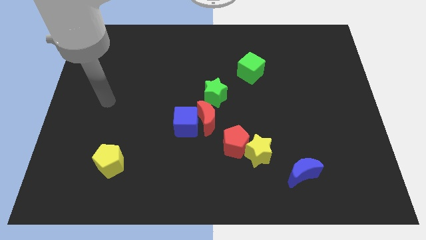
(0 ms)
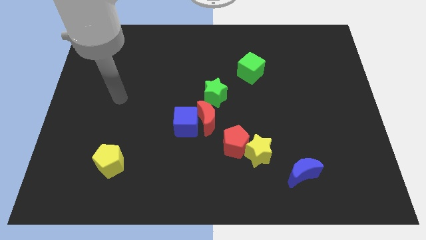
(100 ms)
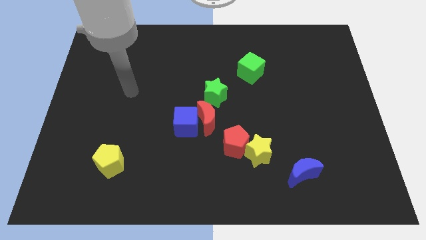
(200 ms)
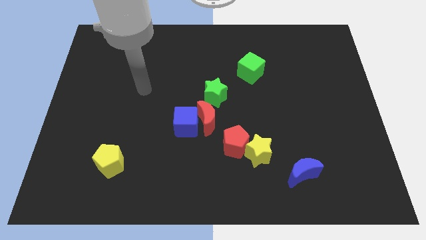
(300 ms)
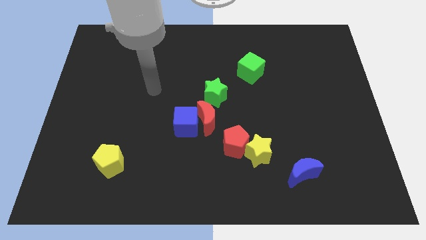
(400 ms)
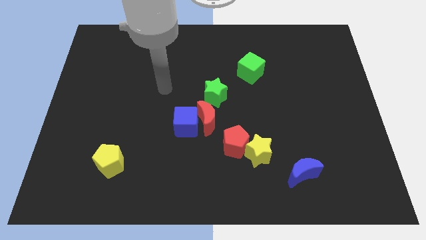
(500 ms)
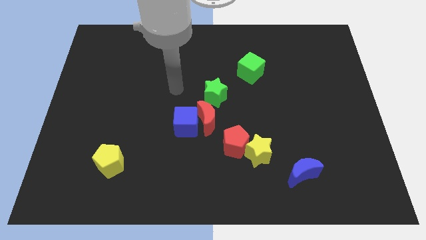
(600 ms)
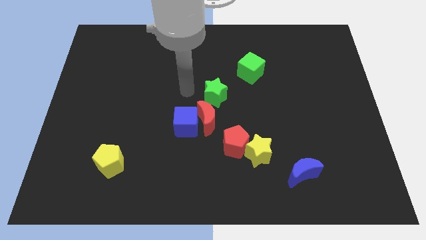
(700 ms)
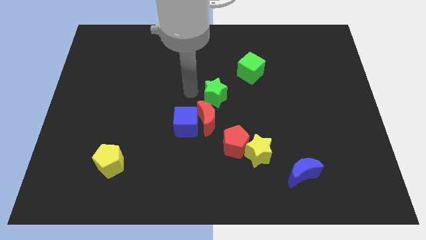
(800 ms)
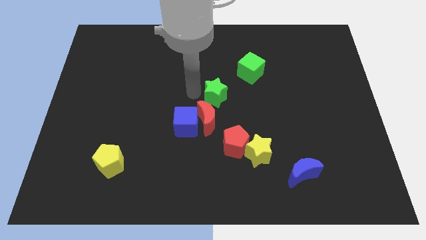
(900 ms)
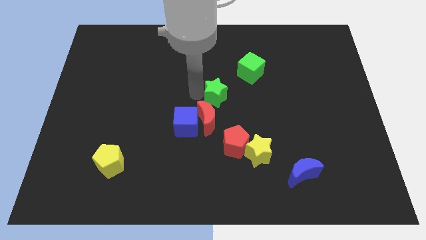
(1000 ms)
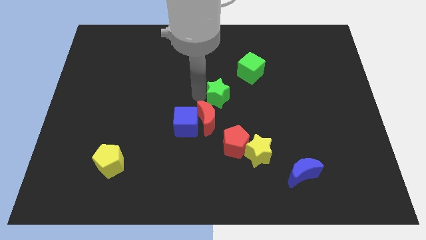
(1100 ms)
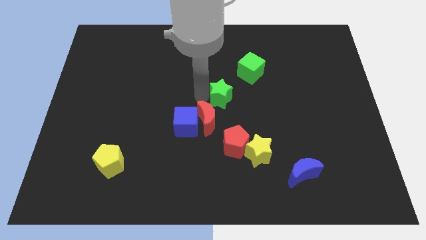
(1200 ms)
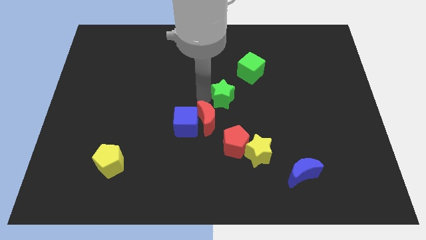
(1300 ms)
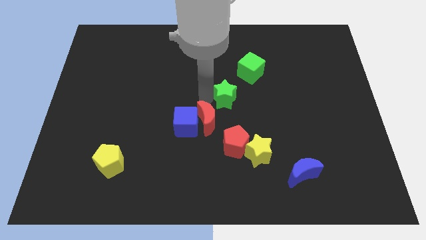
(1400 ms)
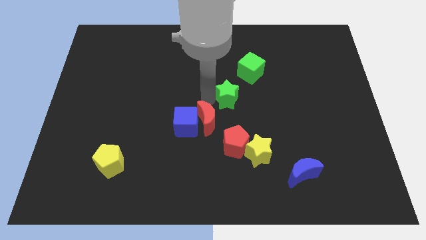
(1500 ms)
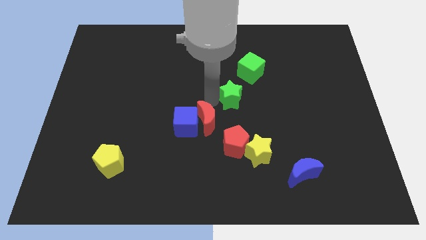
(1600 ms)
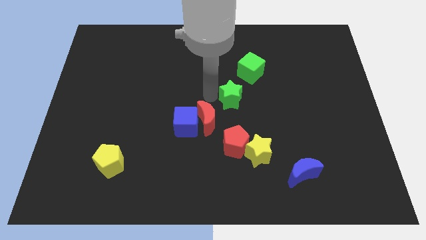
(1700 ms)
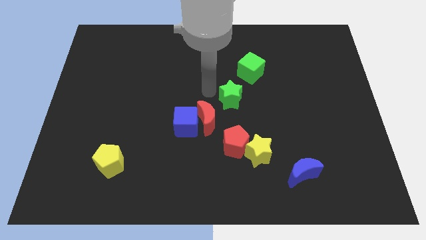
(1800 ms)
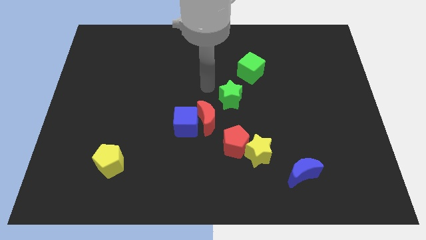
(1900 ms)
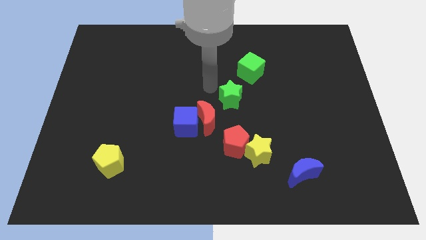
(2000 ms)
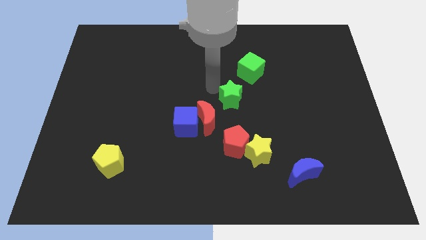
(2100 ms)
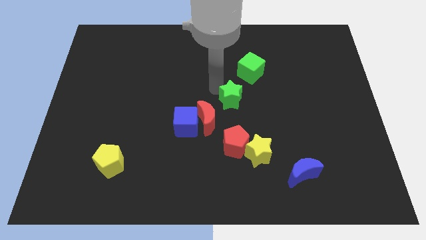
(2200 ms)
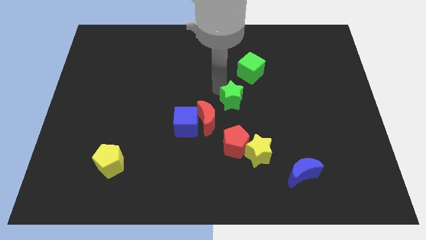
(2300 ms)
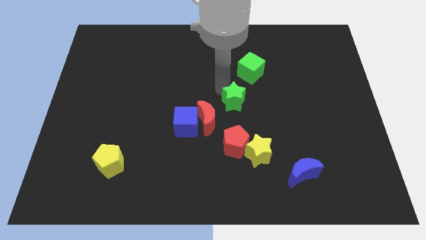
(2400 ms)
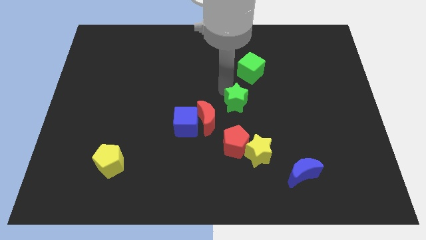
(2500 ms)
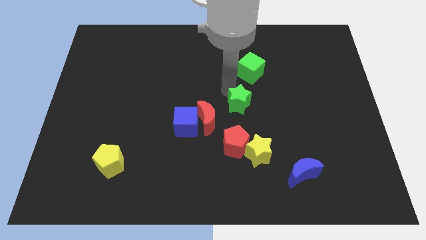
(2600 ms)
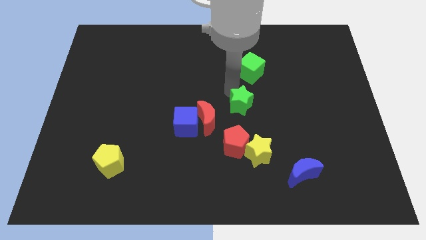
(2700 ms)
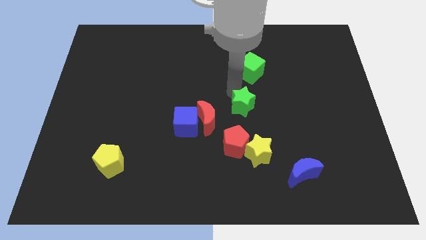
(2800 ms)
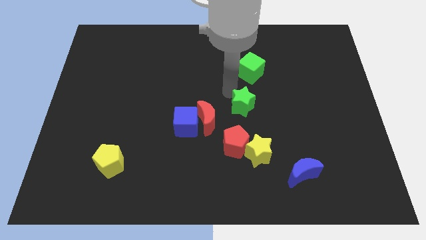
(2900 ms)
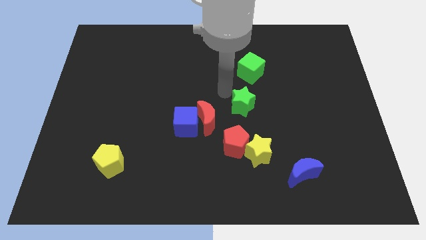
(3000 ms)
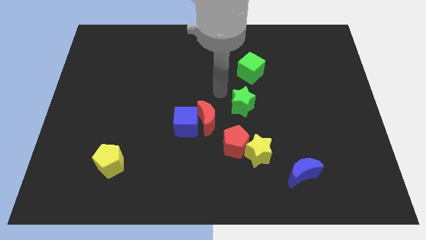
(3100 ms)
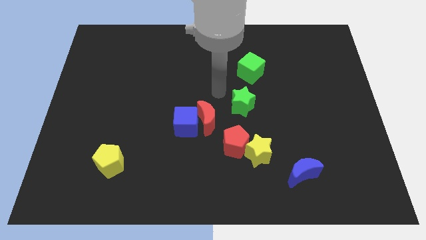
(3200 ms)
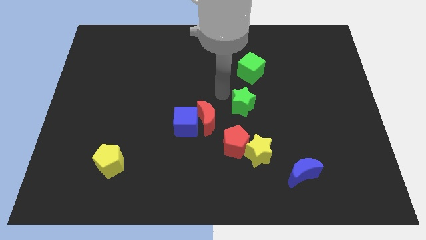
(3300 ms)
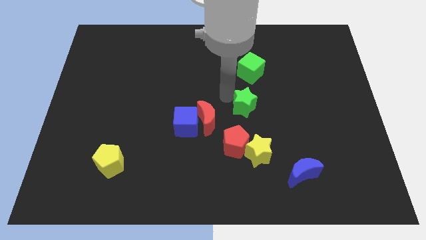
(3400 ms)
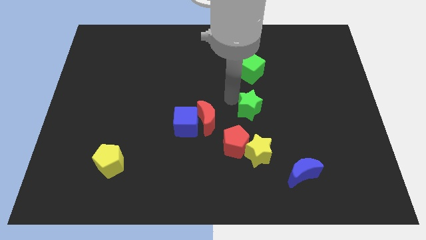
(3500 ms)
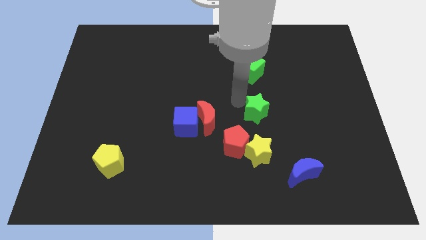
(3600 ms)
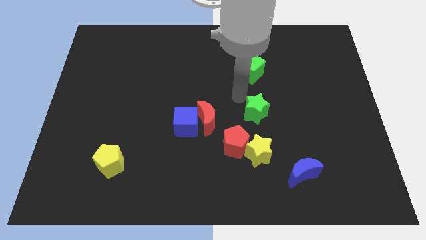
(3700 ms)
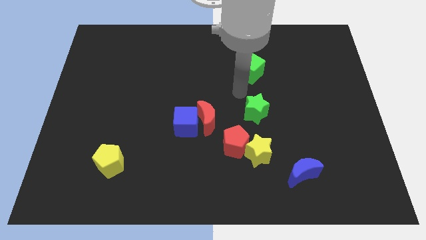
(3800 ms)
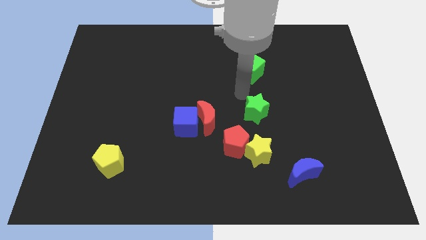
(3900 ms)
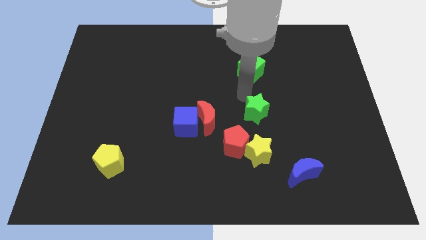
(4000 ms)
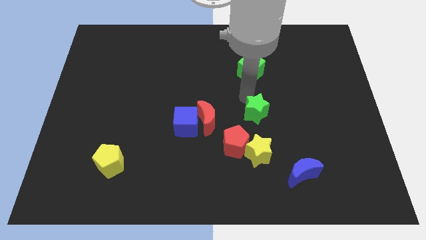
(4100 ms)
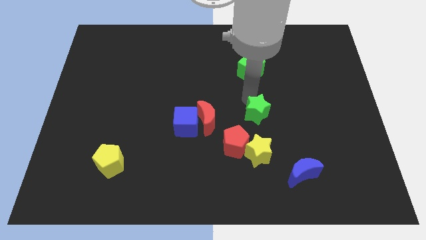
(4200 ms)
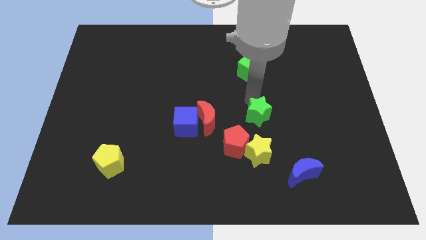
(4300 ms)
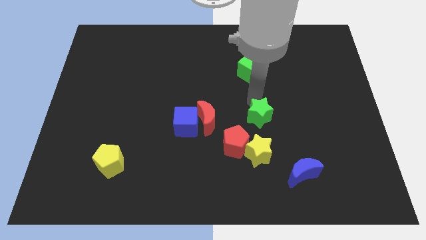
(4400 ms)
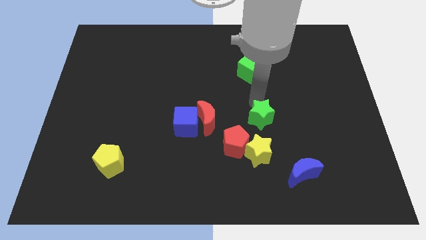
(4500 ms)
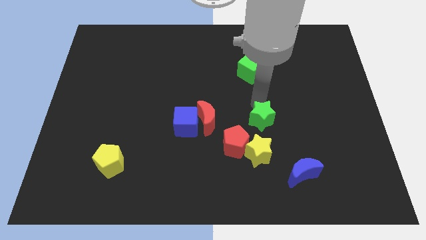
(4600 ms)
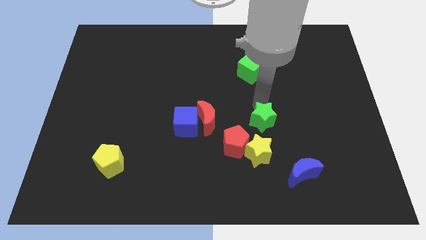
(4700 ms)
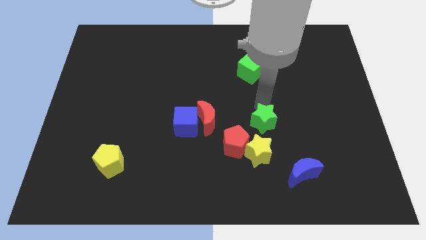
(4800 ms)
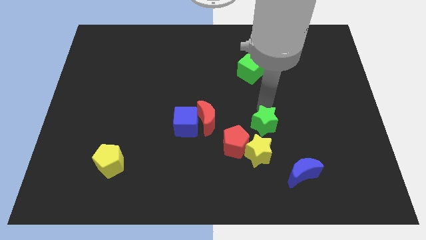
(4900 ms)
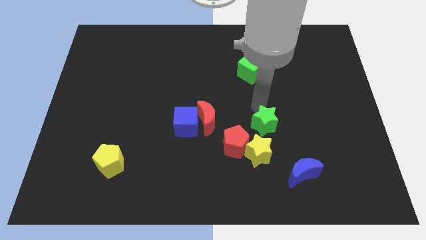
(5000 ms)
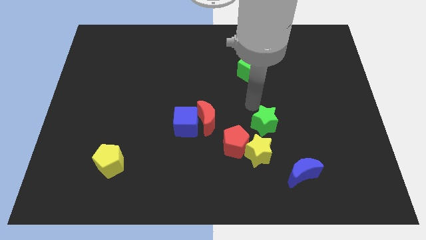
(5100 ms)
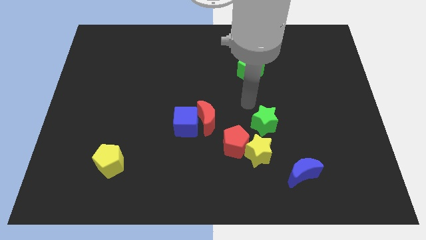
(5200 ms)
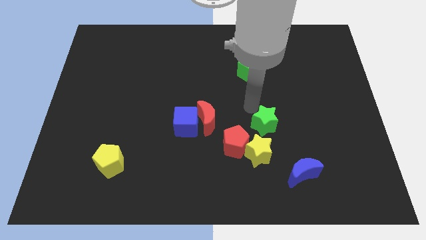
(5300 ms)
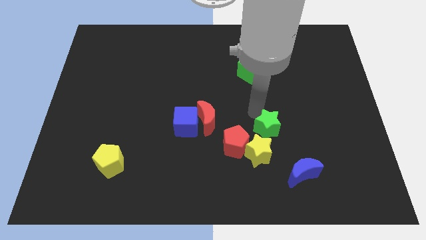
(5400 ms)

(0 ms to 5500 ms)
put the green star to the right of the red pentagon

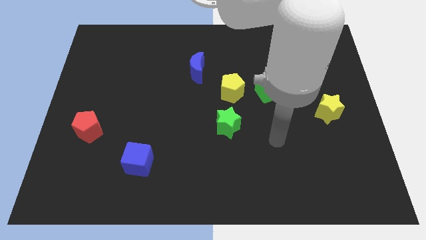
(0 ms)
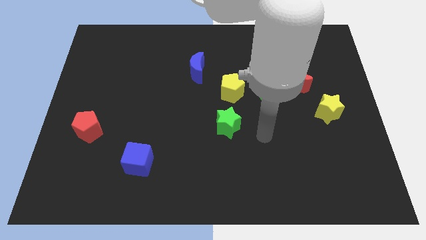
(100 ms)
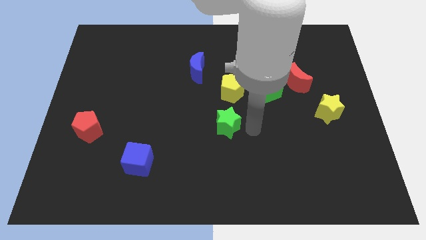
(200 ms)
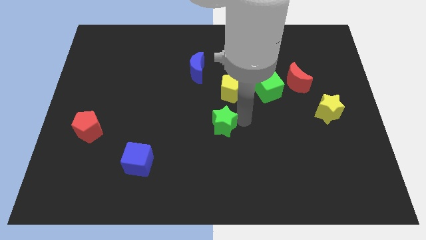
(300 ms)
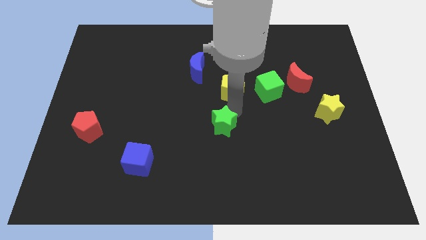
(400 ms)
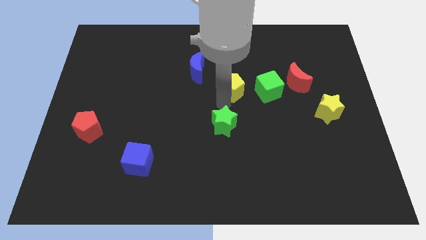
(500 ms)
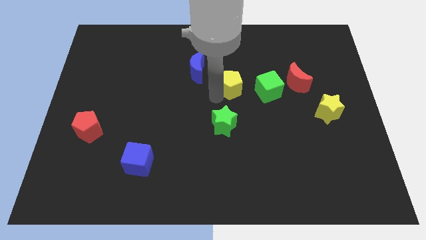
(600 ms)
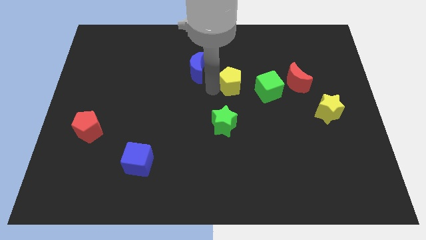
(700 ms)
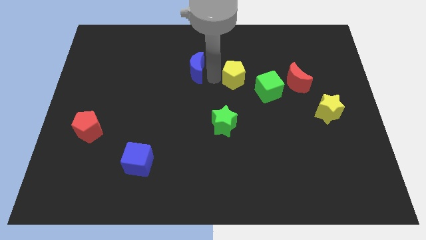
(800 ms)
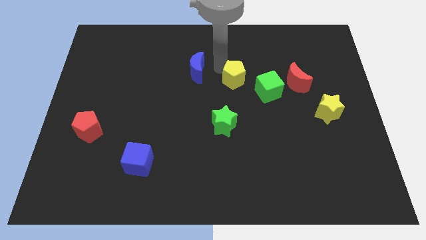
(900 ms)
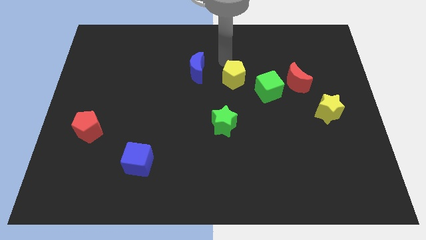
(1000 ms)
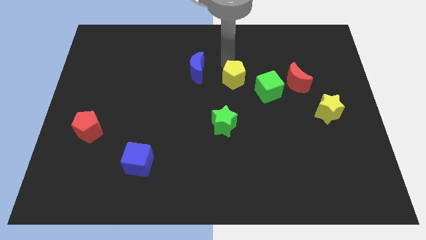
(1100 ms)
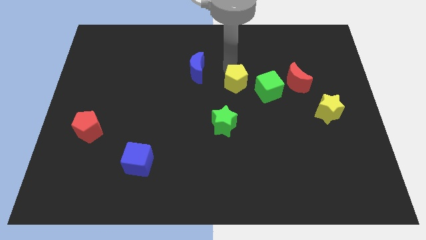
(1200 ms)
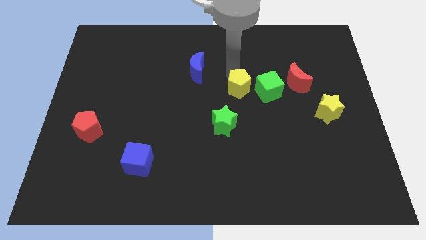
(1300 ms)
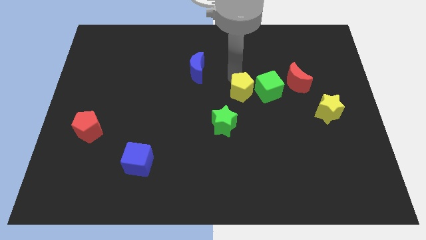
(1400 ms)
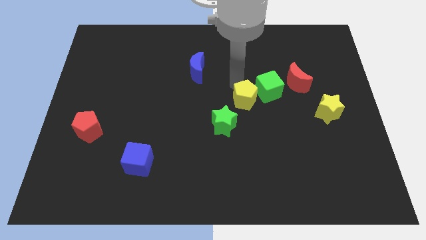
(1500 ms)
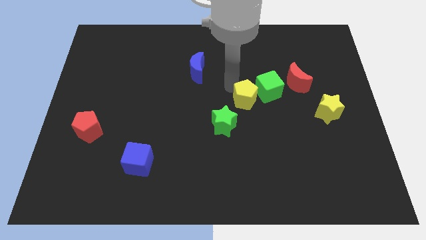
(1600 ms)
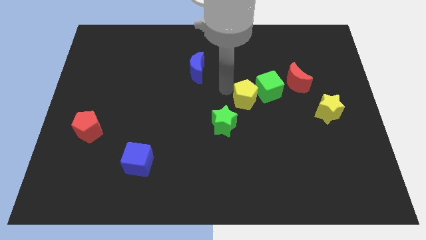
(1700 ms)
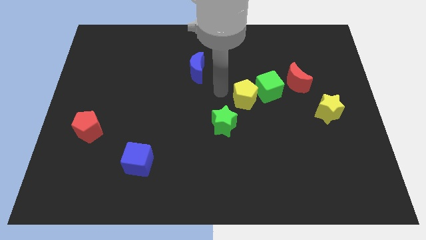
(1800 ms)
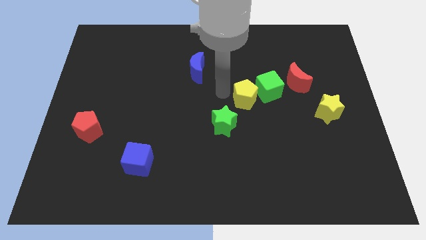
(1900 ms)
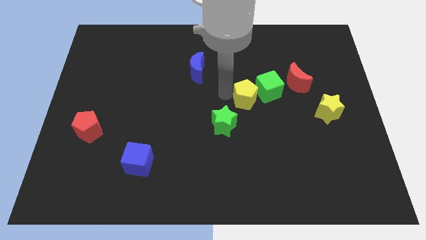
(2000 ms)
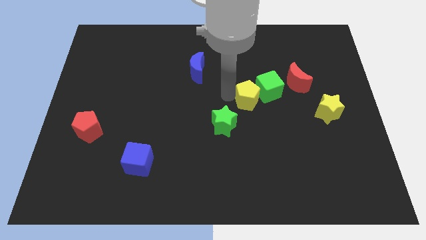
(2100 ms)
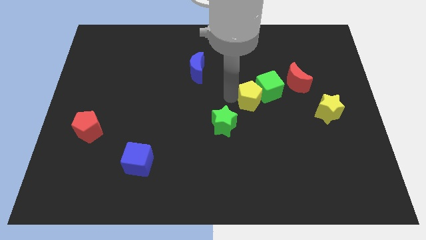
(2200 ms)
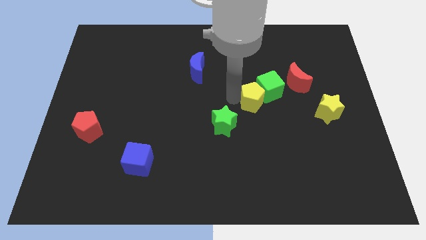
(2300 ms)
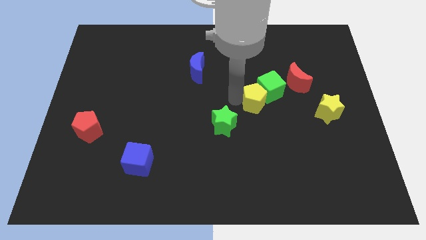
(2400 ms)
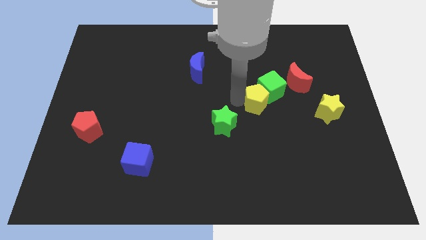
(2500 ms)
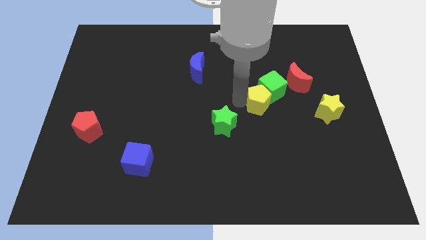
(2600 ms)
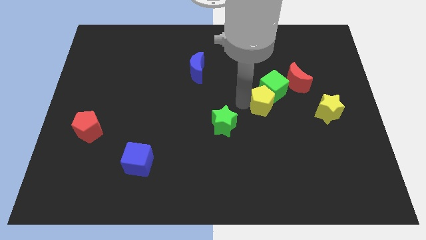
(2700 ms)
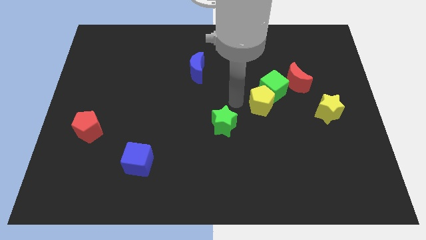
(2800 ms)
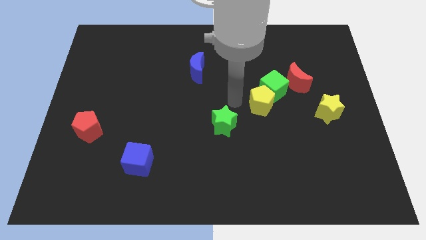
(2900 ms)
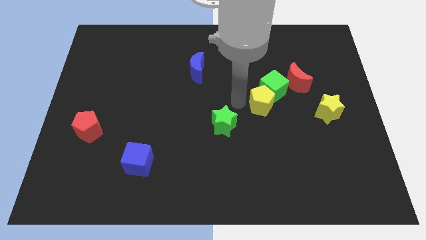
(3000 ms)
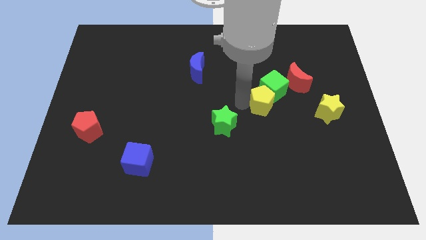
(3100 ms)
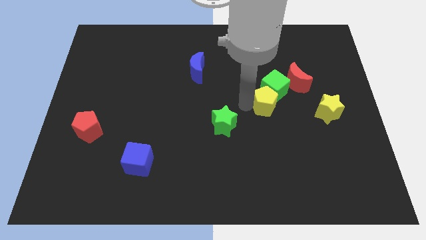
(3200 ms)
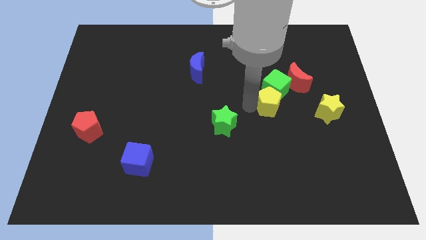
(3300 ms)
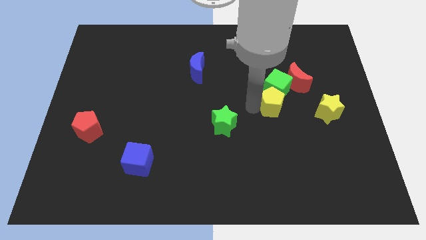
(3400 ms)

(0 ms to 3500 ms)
slide the yellow pentagon to the bottom right of the green cube
